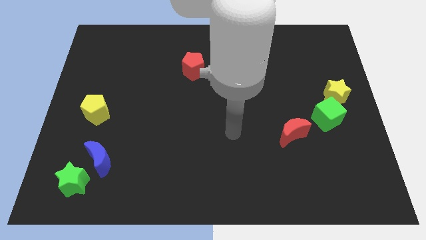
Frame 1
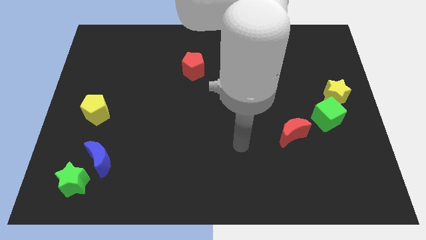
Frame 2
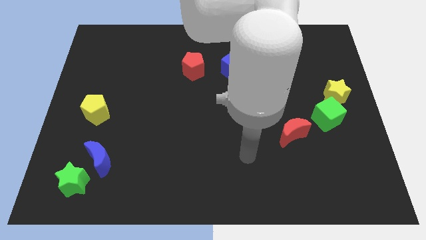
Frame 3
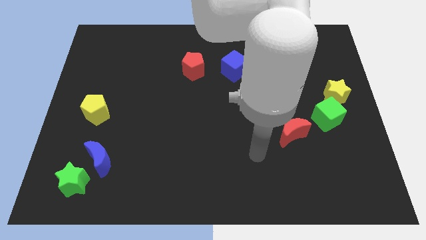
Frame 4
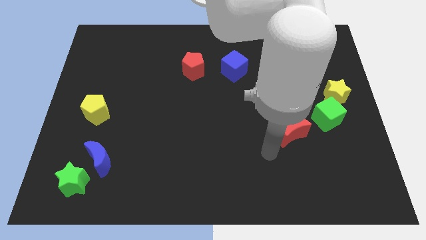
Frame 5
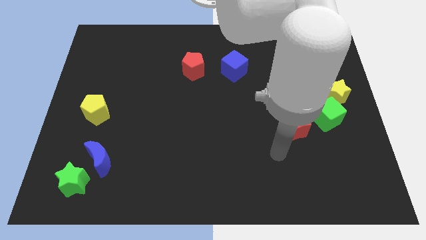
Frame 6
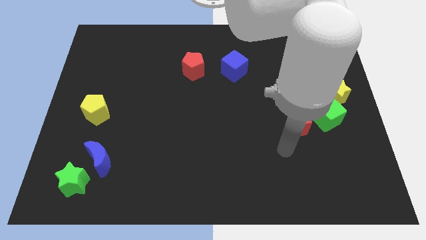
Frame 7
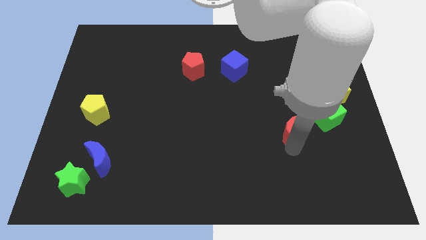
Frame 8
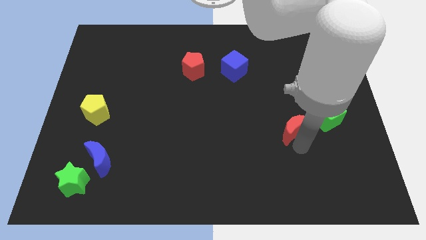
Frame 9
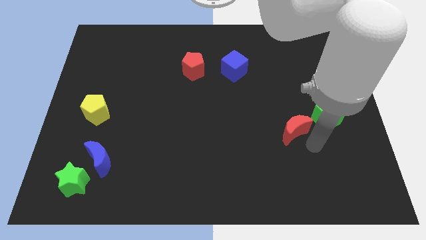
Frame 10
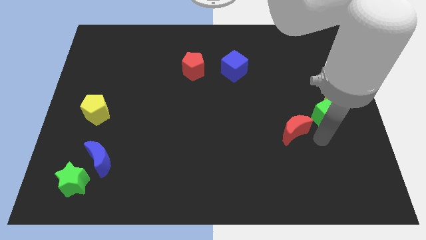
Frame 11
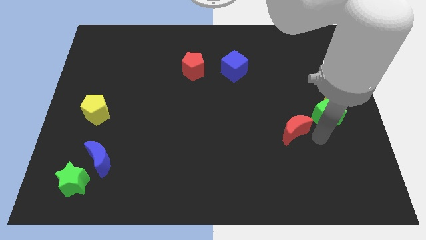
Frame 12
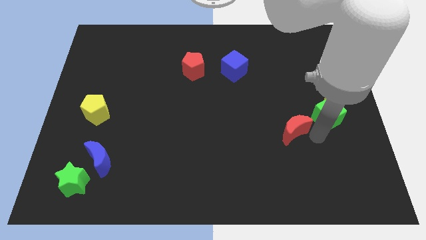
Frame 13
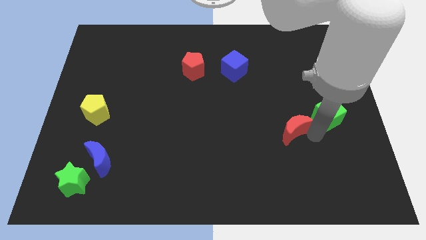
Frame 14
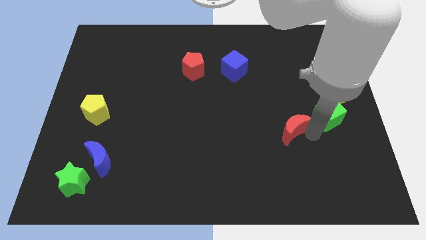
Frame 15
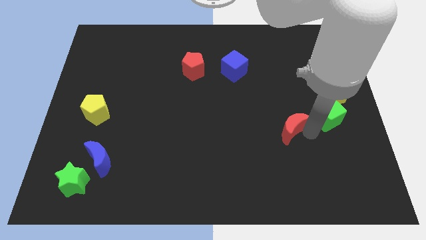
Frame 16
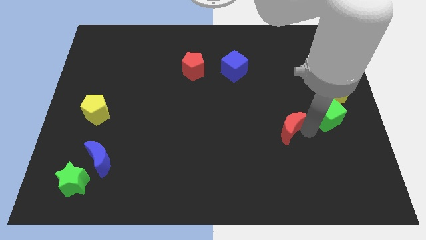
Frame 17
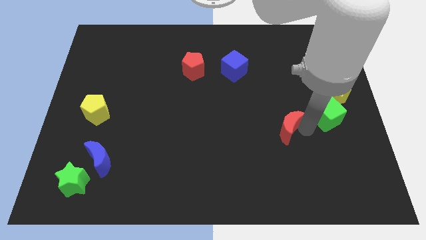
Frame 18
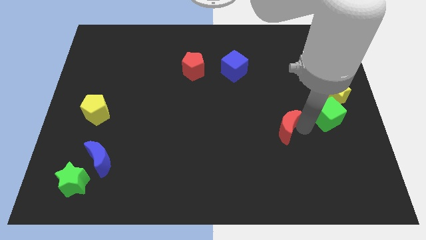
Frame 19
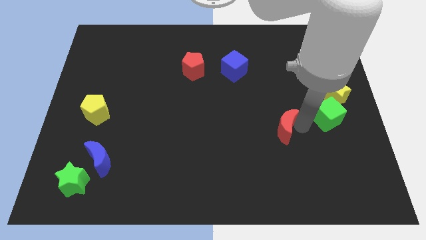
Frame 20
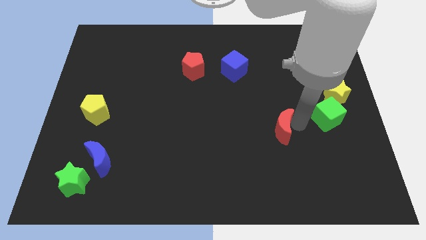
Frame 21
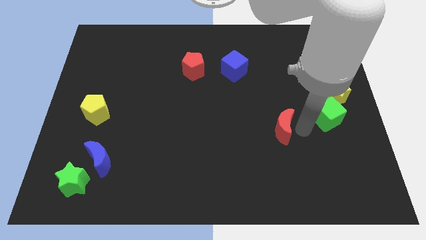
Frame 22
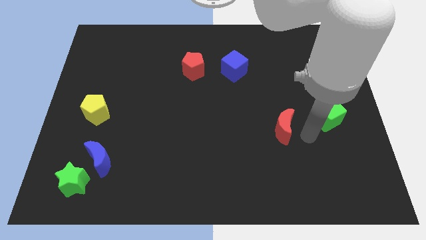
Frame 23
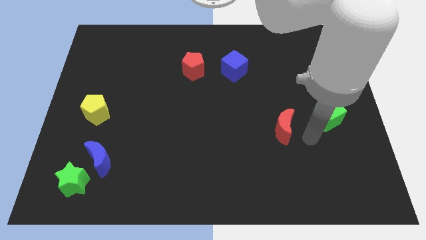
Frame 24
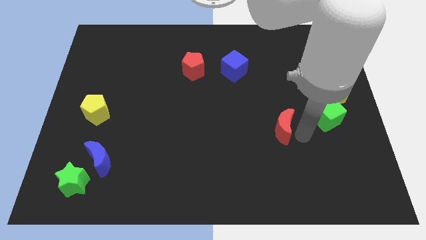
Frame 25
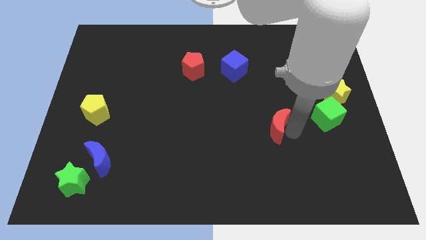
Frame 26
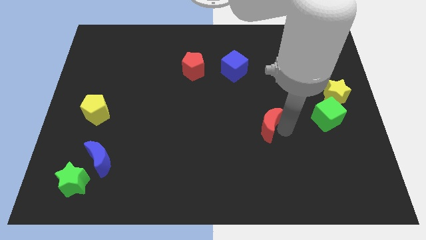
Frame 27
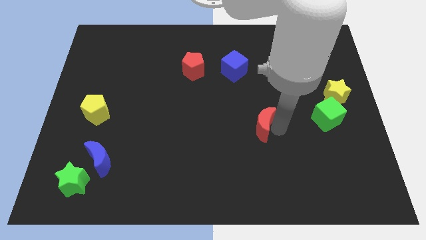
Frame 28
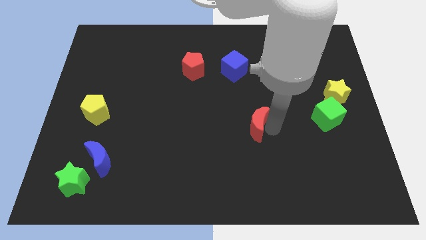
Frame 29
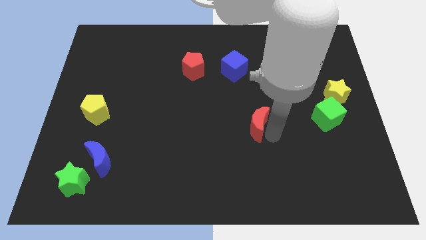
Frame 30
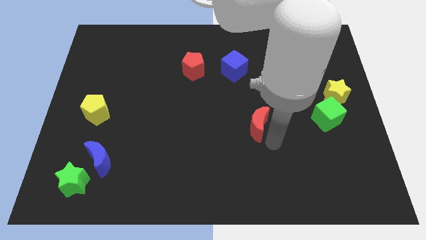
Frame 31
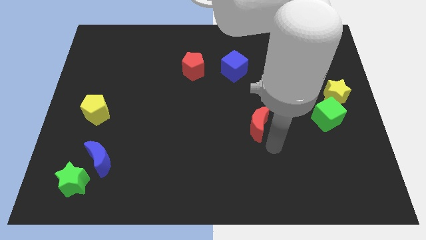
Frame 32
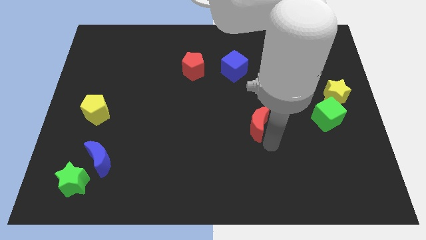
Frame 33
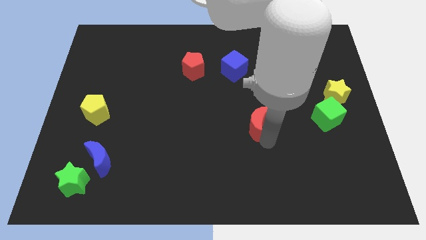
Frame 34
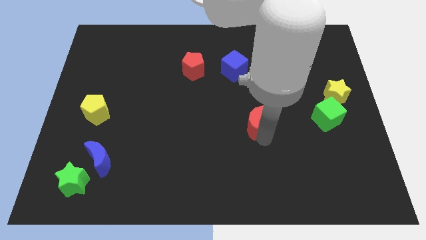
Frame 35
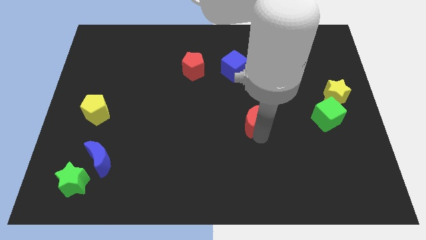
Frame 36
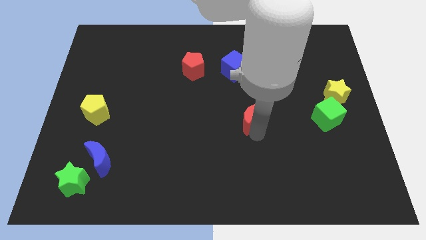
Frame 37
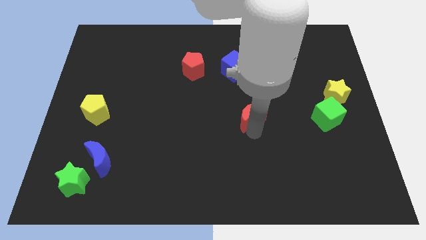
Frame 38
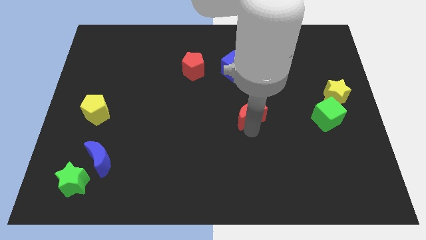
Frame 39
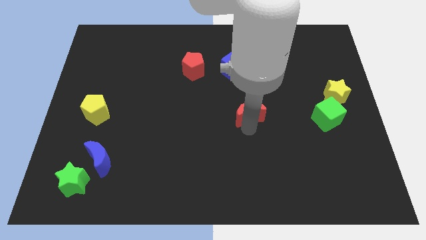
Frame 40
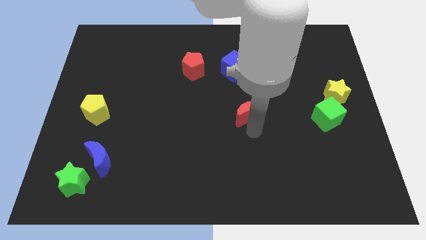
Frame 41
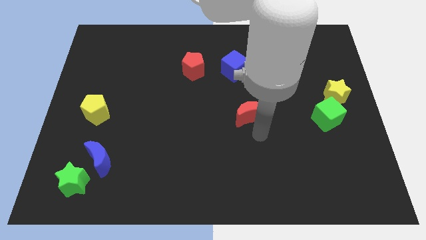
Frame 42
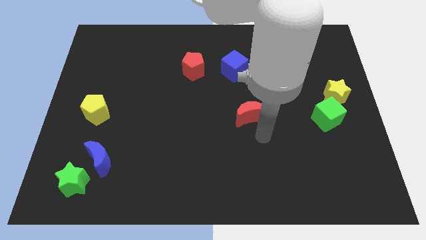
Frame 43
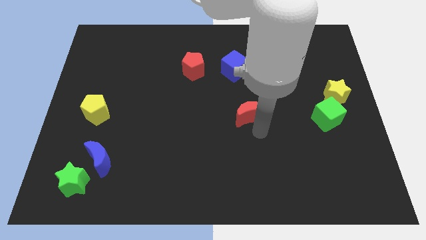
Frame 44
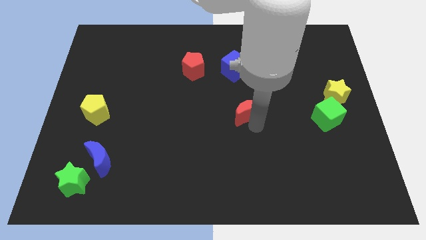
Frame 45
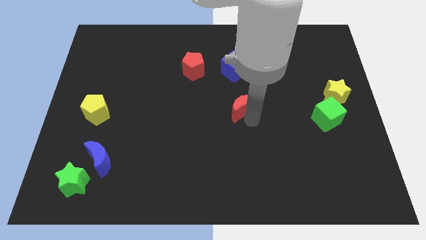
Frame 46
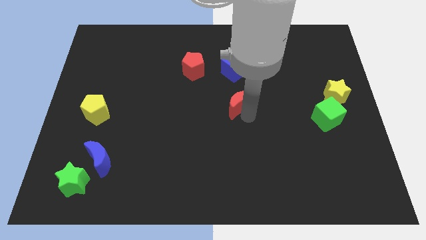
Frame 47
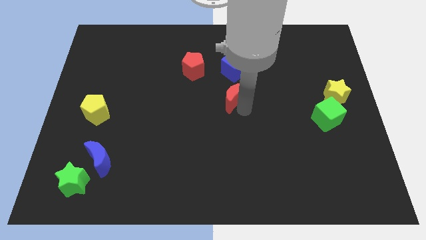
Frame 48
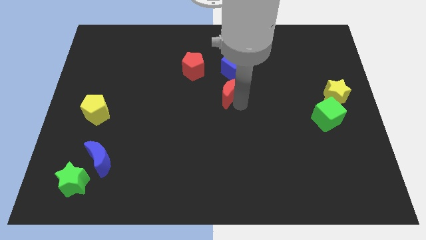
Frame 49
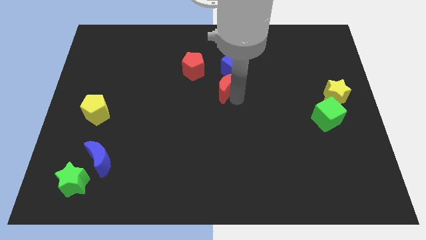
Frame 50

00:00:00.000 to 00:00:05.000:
move the red moon to the bottom left side of the blue cube

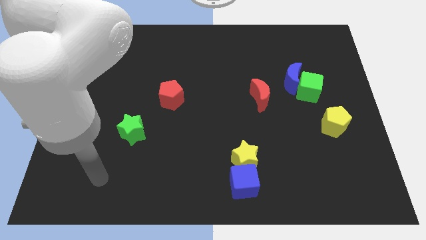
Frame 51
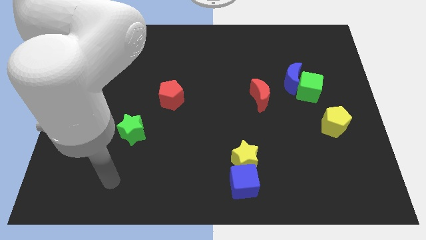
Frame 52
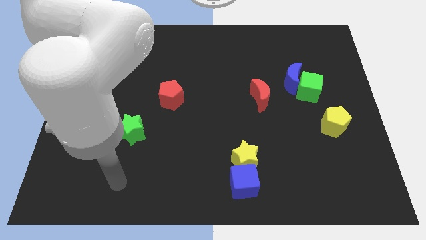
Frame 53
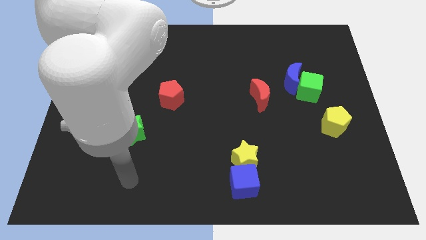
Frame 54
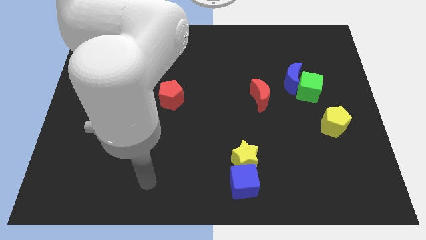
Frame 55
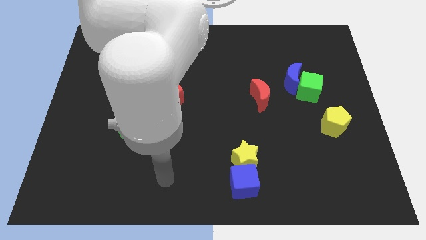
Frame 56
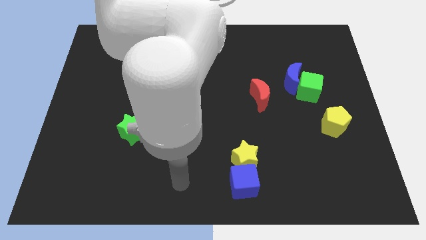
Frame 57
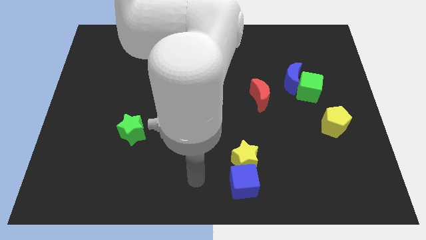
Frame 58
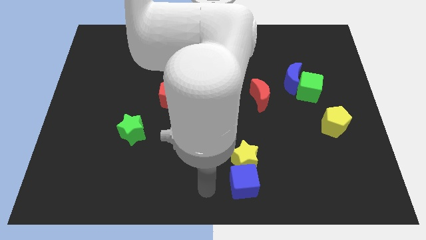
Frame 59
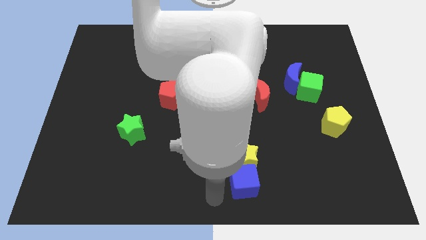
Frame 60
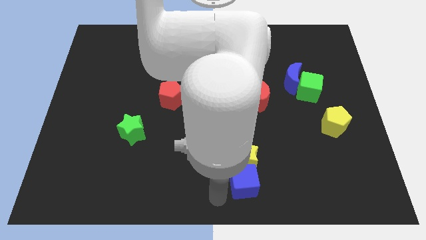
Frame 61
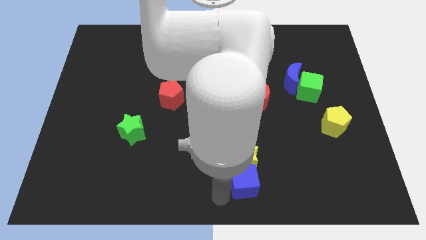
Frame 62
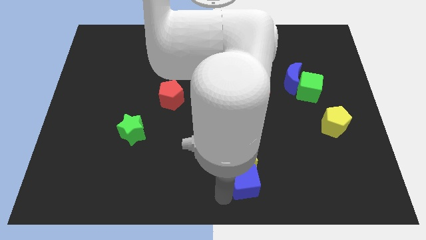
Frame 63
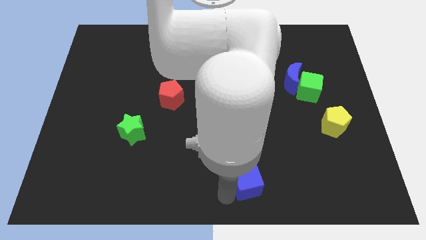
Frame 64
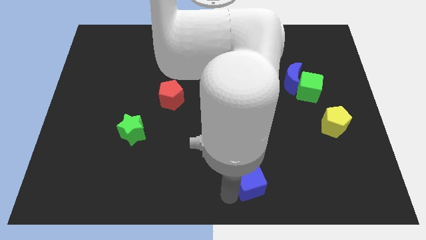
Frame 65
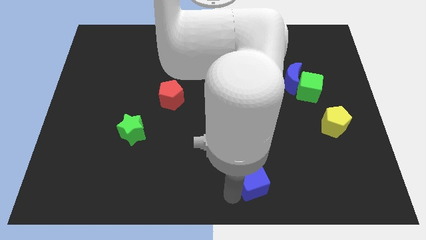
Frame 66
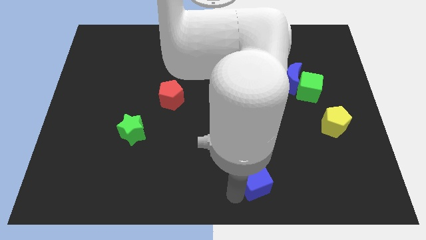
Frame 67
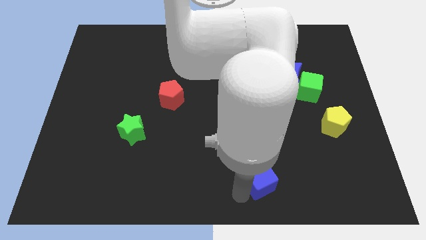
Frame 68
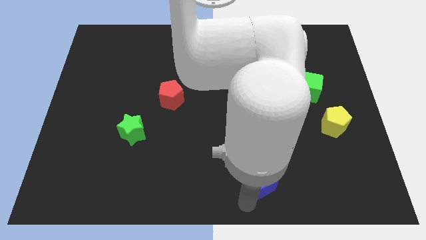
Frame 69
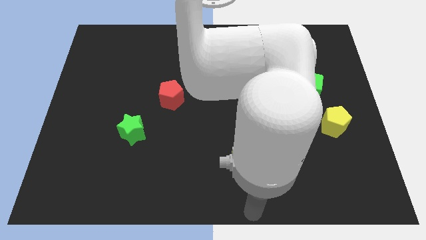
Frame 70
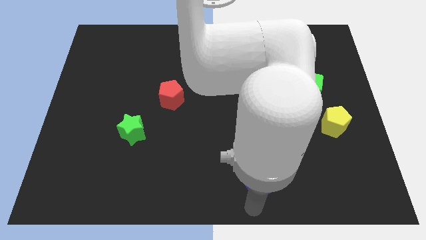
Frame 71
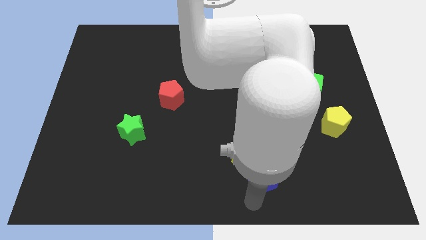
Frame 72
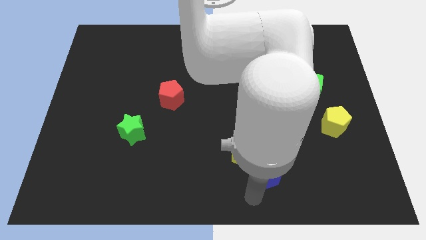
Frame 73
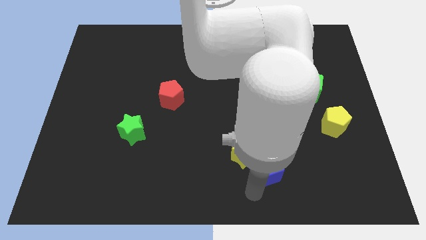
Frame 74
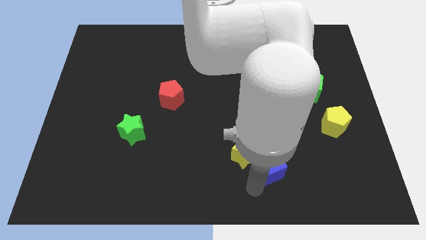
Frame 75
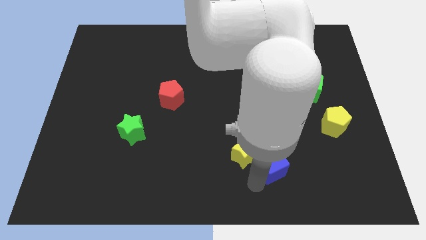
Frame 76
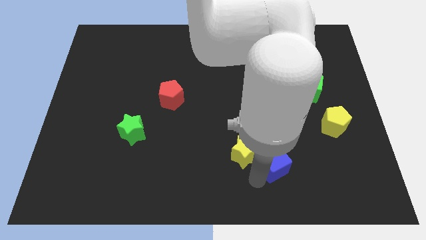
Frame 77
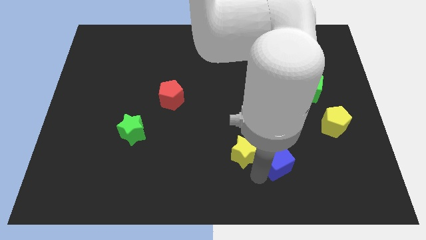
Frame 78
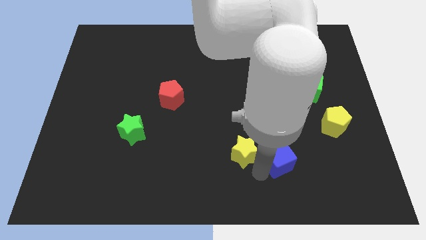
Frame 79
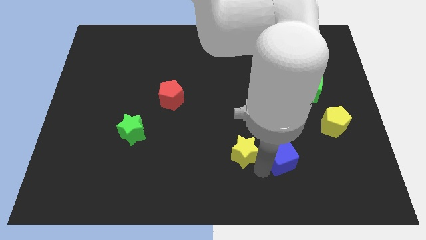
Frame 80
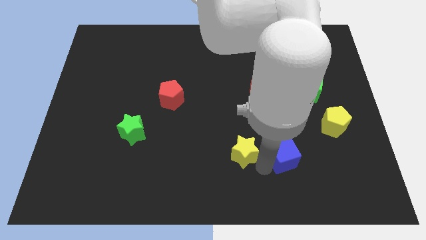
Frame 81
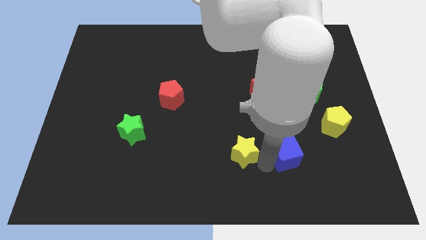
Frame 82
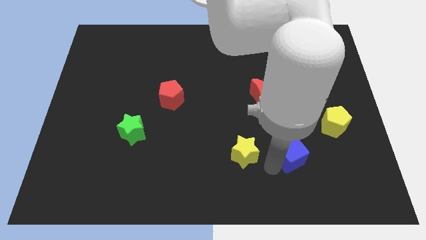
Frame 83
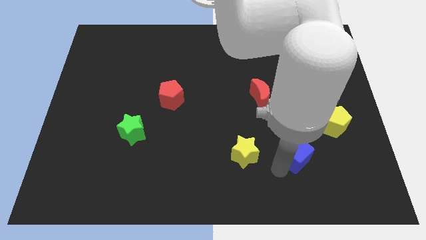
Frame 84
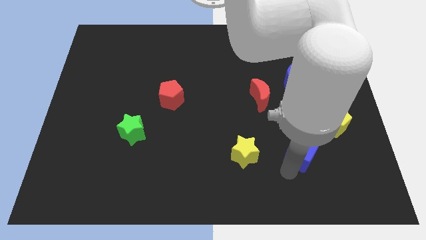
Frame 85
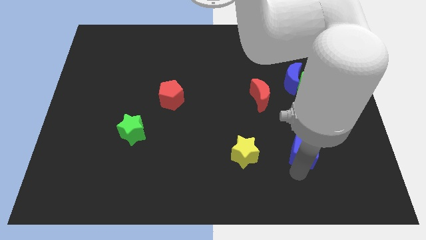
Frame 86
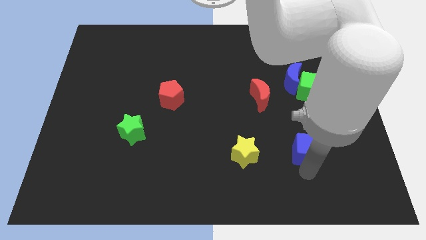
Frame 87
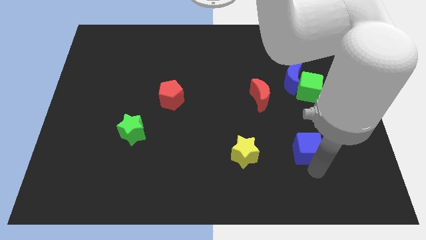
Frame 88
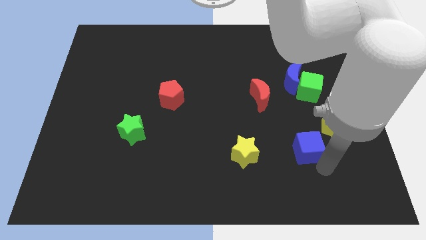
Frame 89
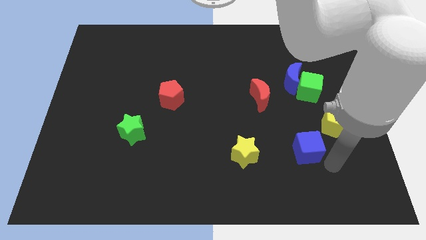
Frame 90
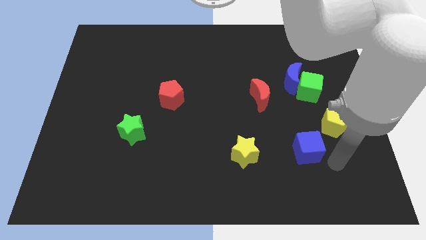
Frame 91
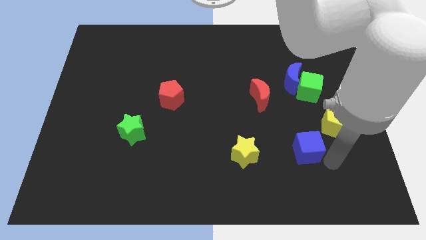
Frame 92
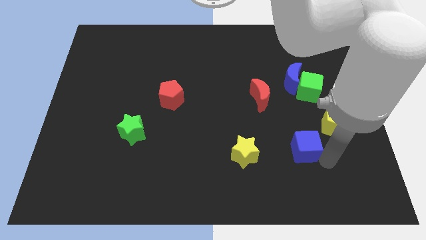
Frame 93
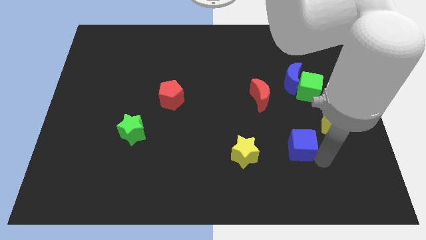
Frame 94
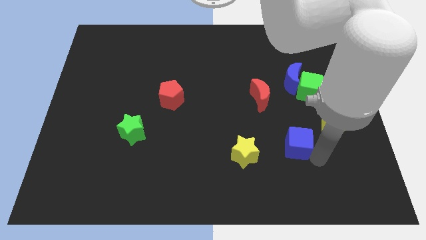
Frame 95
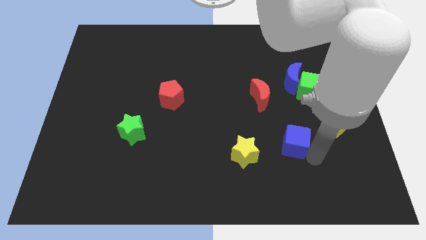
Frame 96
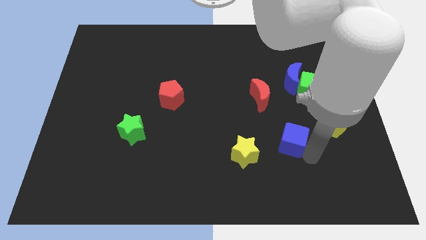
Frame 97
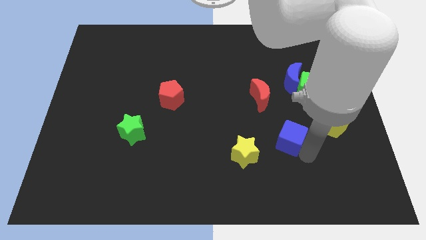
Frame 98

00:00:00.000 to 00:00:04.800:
slide the blue cube diagonally up and to the right of the yellow star
